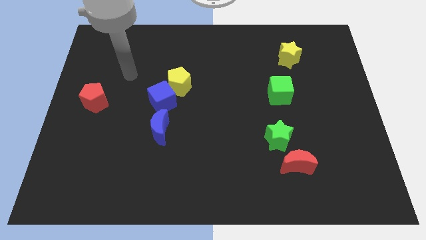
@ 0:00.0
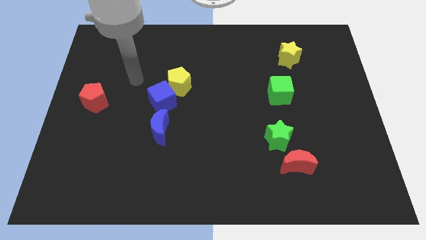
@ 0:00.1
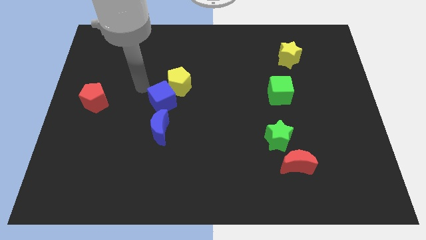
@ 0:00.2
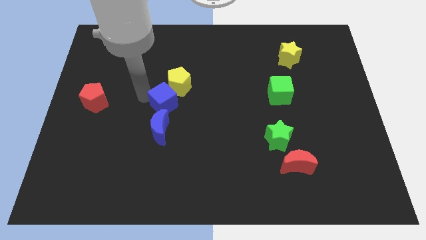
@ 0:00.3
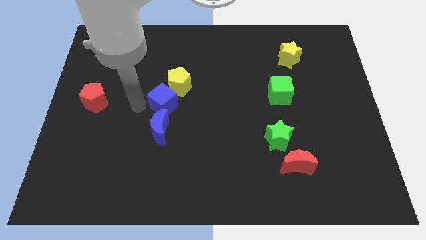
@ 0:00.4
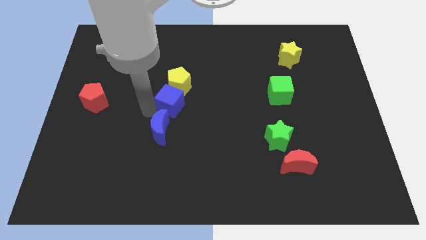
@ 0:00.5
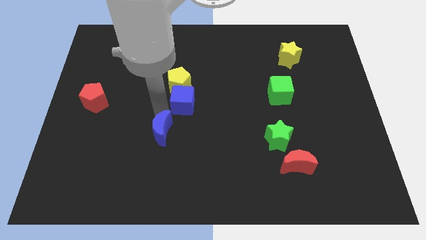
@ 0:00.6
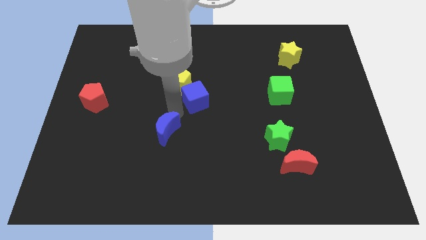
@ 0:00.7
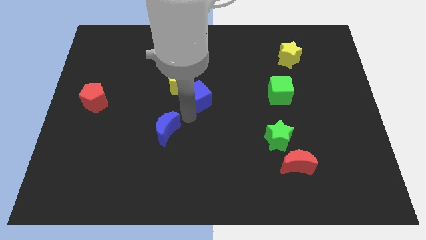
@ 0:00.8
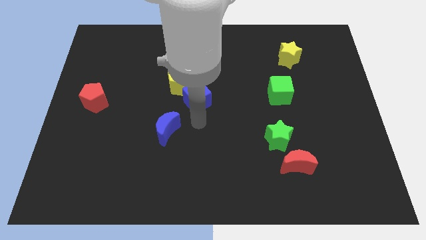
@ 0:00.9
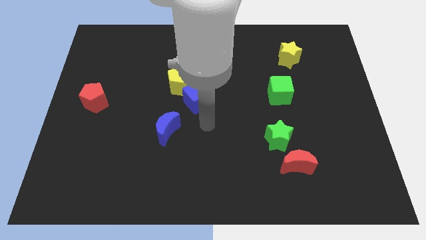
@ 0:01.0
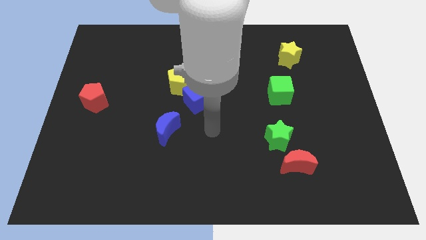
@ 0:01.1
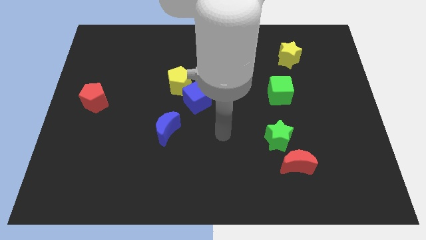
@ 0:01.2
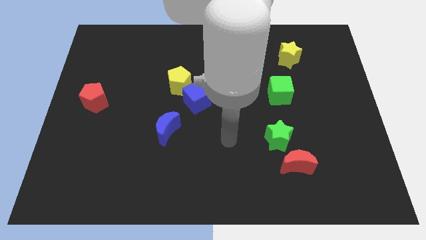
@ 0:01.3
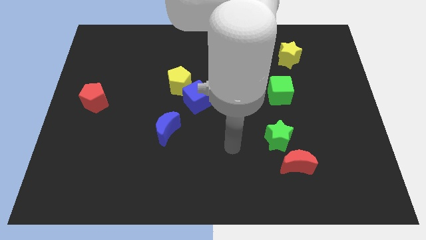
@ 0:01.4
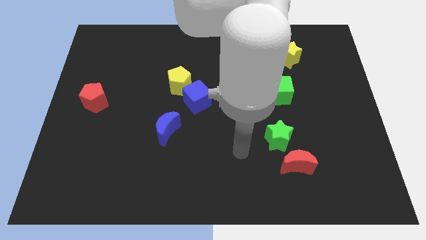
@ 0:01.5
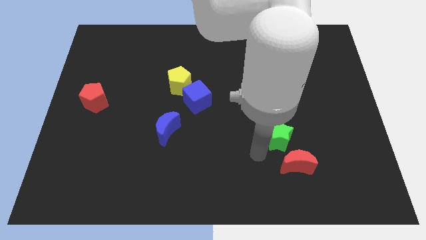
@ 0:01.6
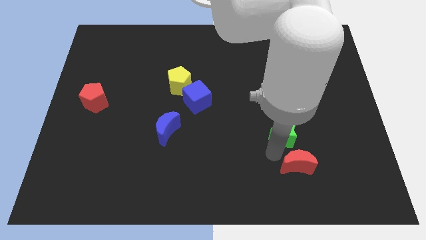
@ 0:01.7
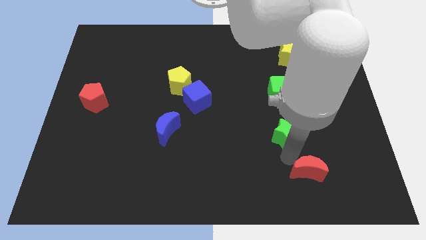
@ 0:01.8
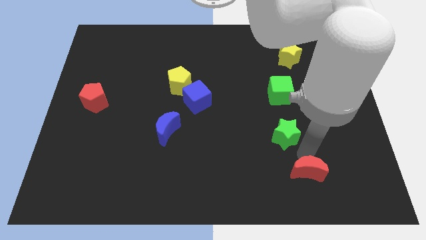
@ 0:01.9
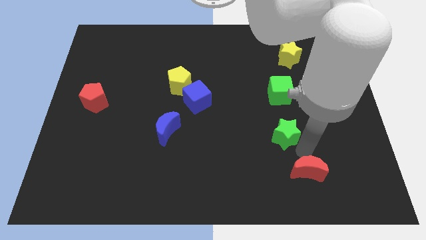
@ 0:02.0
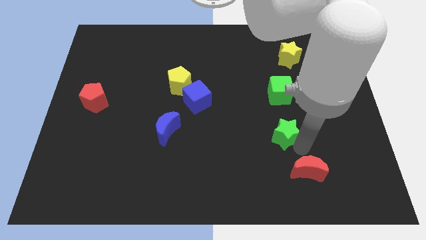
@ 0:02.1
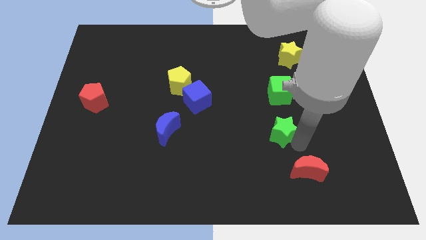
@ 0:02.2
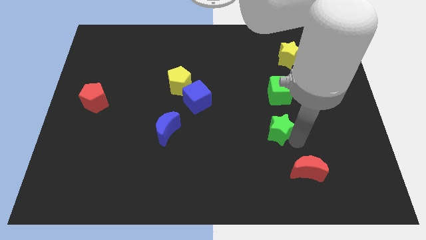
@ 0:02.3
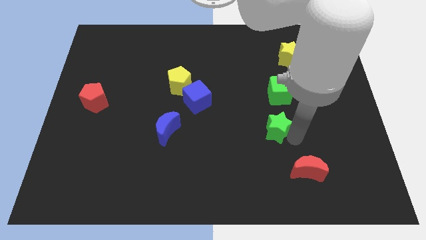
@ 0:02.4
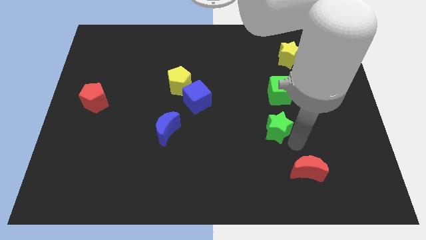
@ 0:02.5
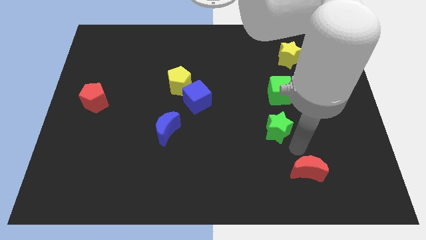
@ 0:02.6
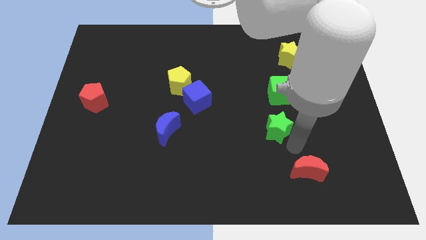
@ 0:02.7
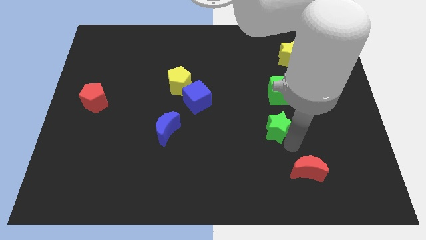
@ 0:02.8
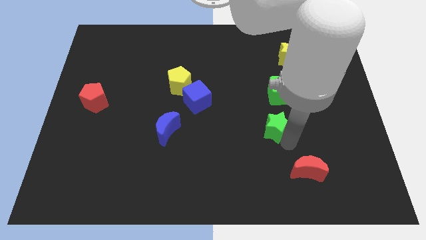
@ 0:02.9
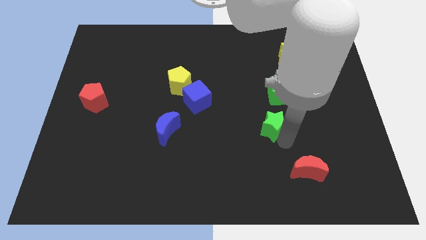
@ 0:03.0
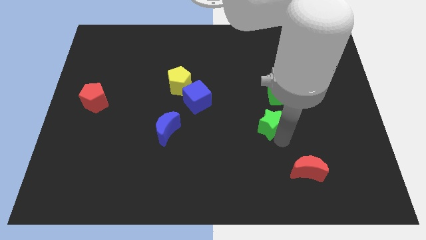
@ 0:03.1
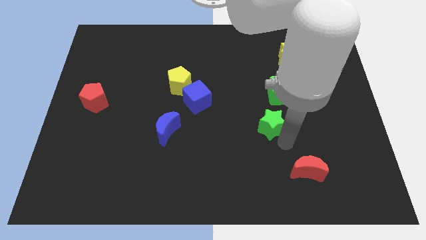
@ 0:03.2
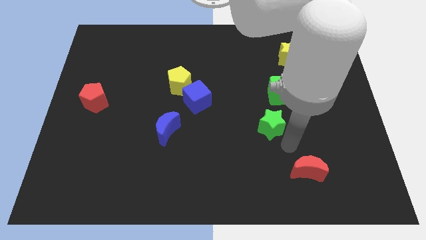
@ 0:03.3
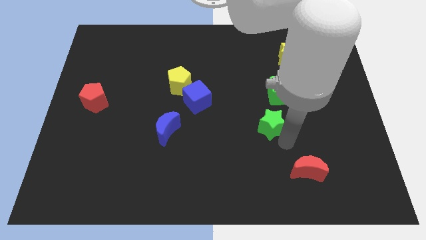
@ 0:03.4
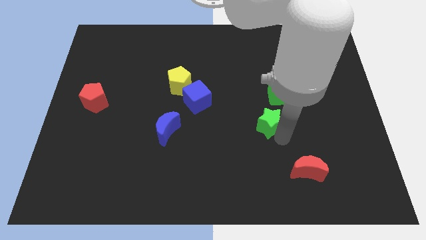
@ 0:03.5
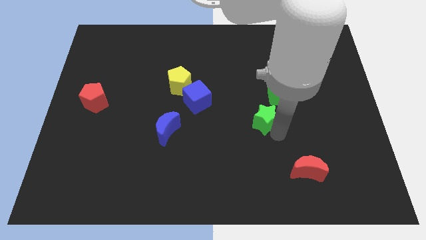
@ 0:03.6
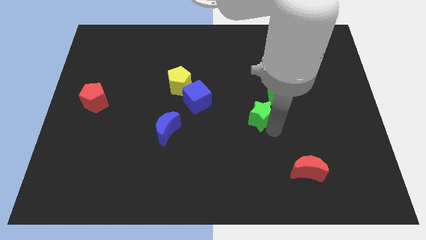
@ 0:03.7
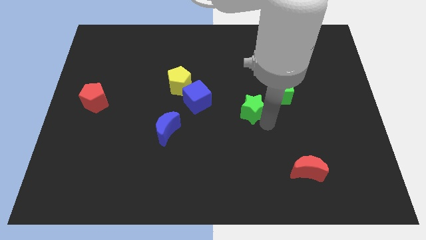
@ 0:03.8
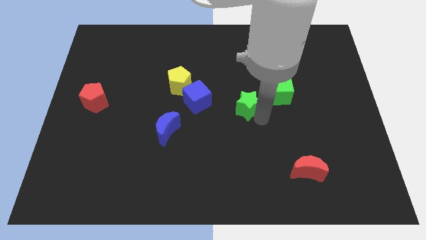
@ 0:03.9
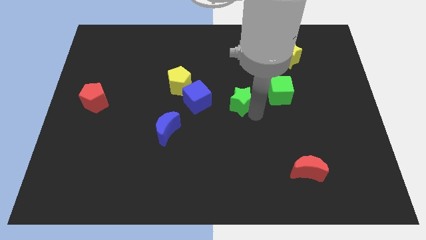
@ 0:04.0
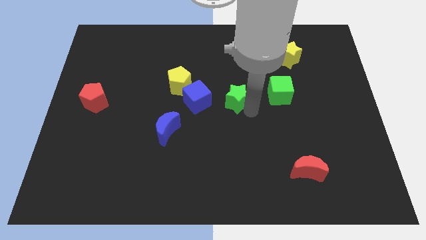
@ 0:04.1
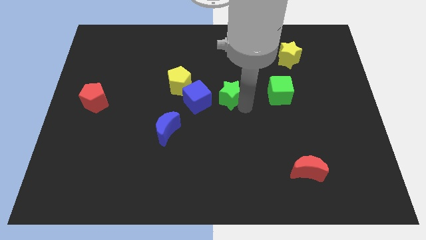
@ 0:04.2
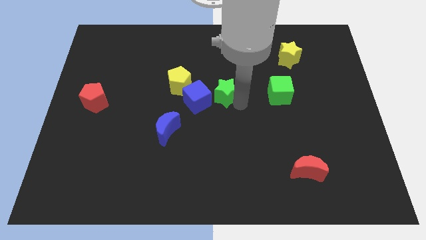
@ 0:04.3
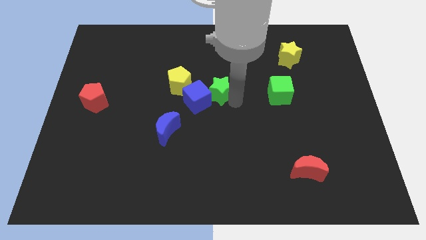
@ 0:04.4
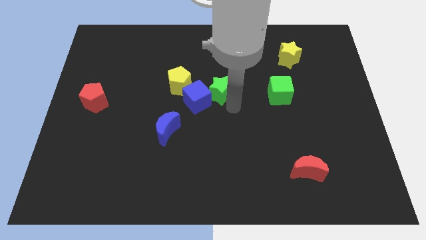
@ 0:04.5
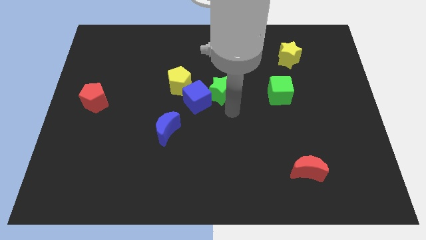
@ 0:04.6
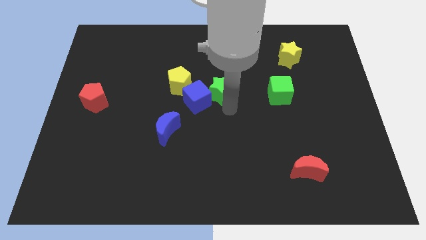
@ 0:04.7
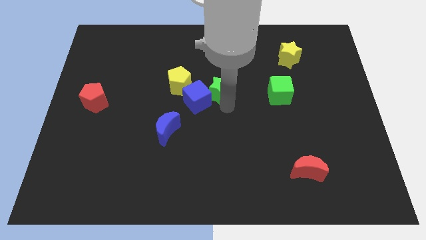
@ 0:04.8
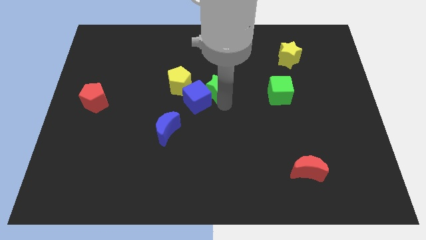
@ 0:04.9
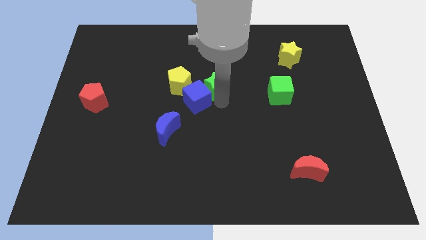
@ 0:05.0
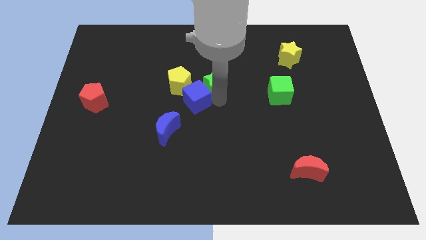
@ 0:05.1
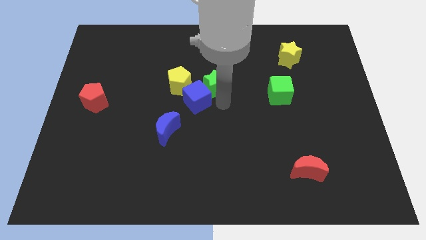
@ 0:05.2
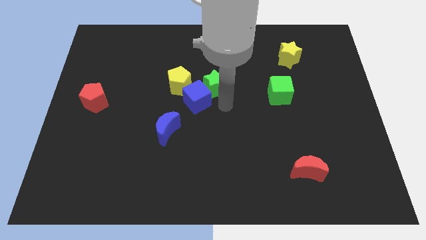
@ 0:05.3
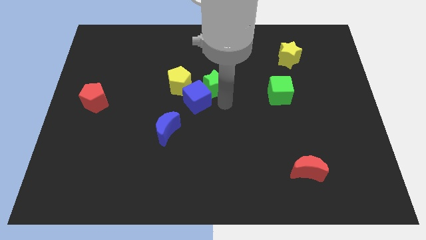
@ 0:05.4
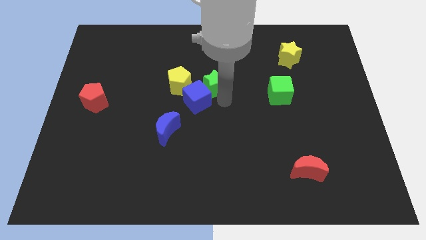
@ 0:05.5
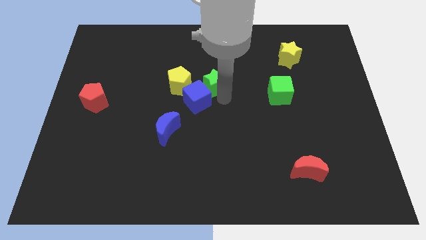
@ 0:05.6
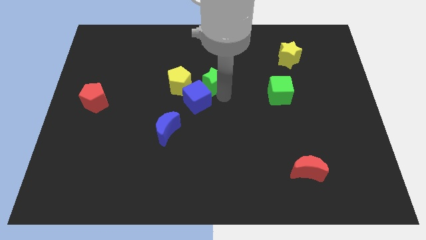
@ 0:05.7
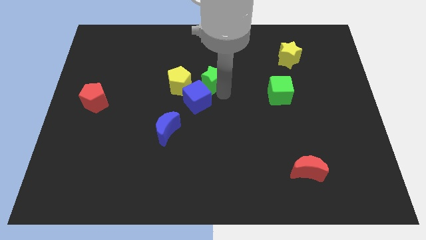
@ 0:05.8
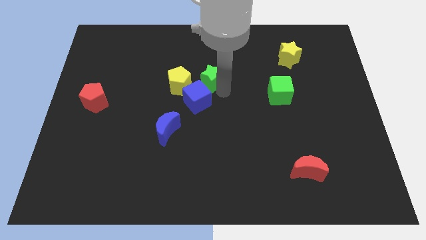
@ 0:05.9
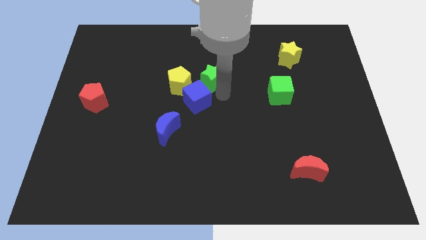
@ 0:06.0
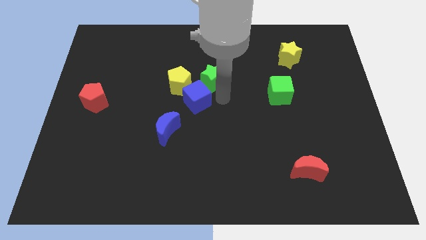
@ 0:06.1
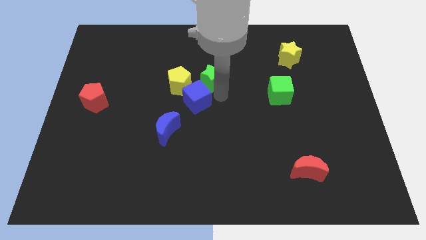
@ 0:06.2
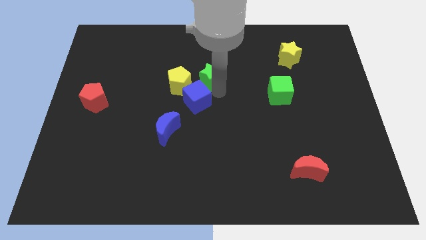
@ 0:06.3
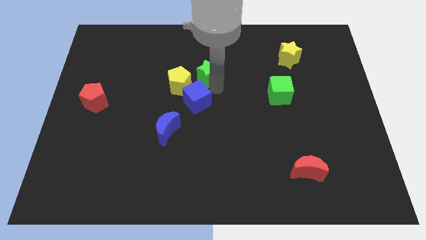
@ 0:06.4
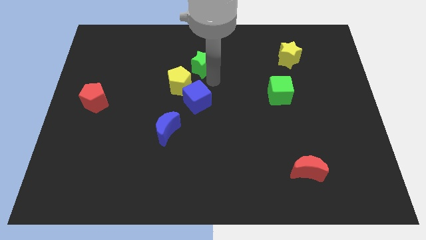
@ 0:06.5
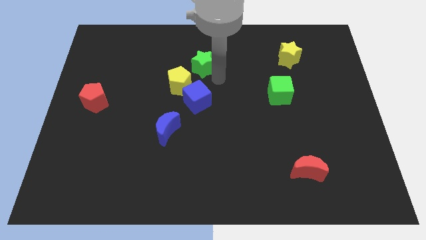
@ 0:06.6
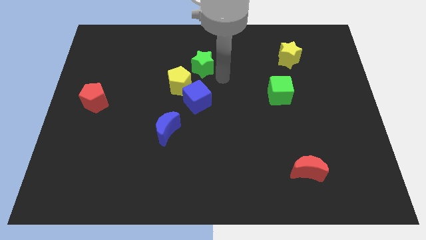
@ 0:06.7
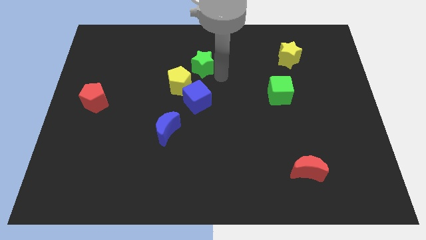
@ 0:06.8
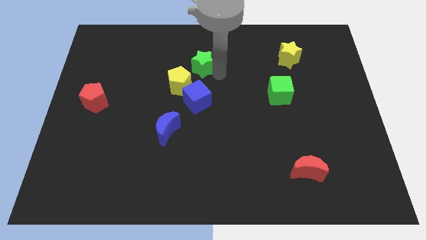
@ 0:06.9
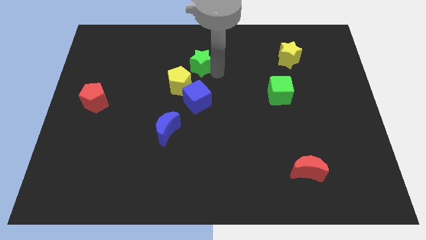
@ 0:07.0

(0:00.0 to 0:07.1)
move the green star to the top side of the yellow pentagon
